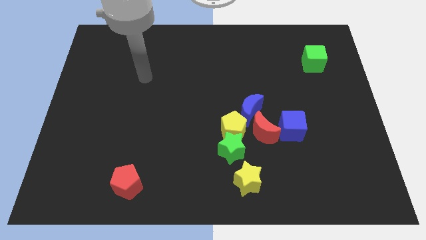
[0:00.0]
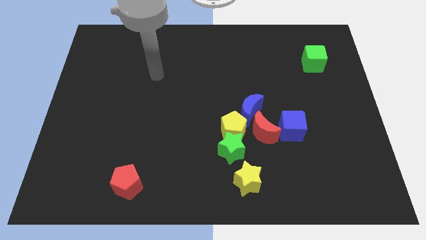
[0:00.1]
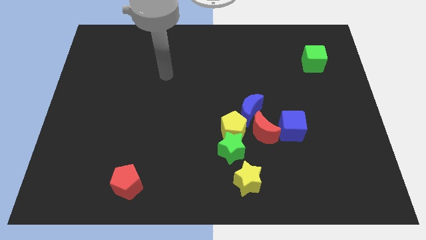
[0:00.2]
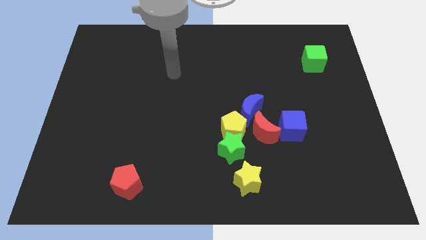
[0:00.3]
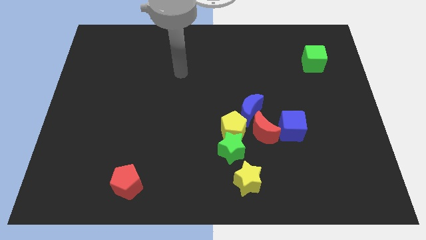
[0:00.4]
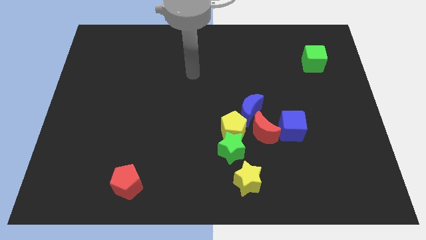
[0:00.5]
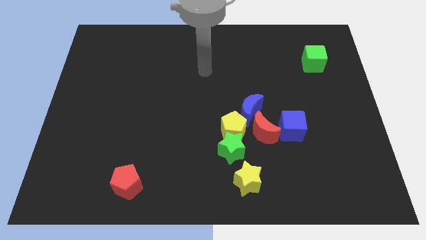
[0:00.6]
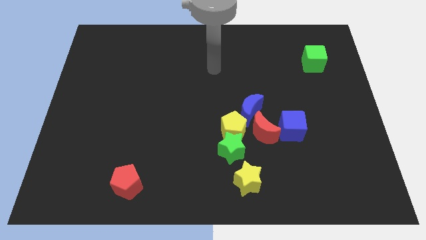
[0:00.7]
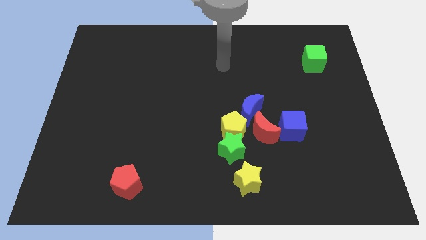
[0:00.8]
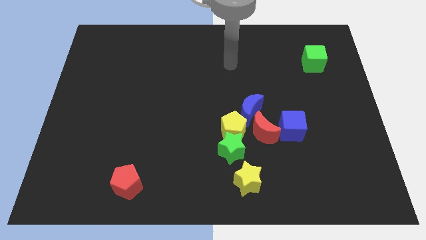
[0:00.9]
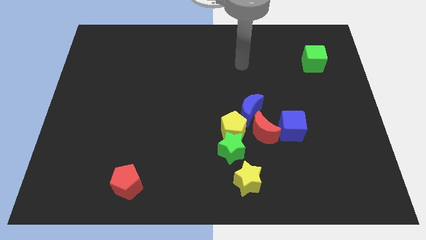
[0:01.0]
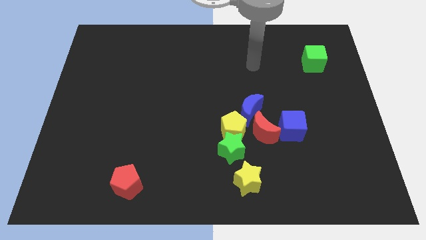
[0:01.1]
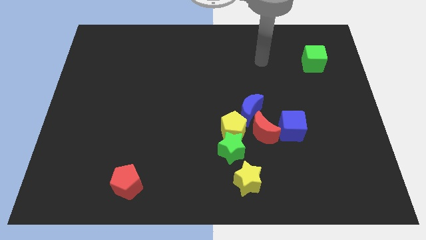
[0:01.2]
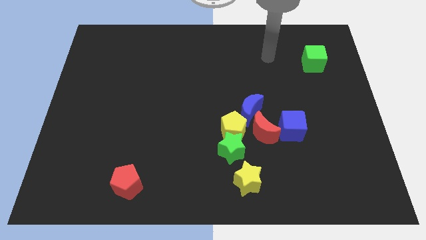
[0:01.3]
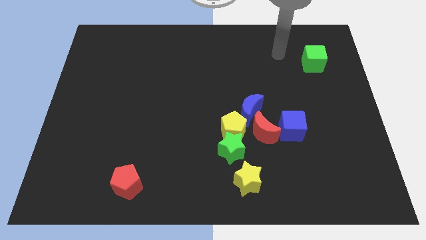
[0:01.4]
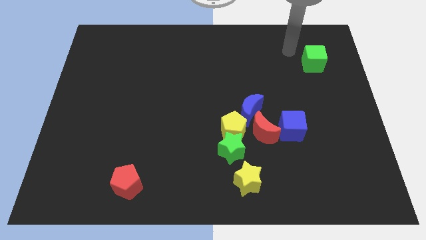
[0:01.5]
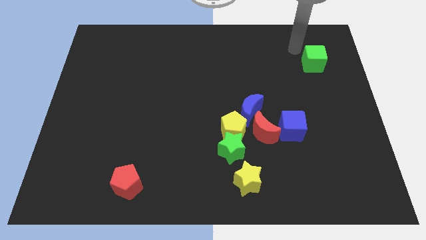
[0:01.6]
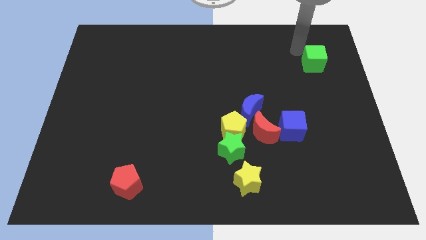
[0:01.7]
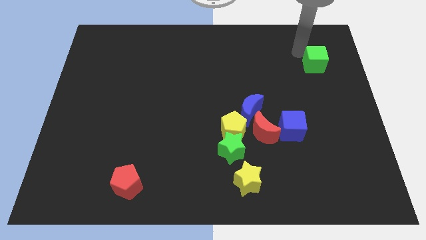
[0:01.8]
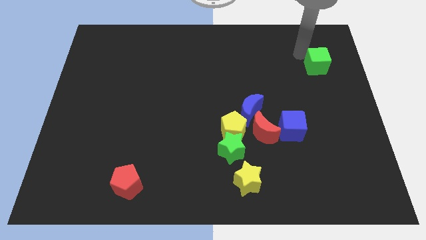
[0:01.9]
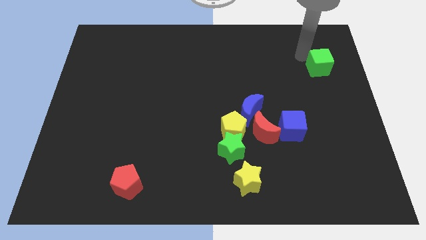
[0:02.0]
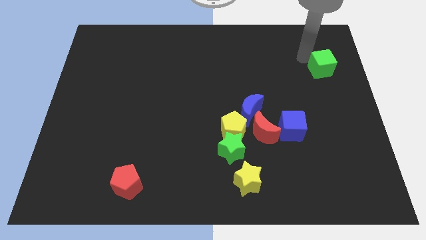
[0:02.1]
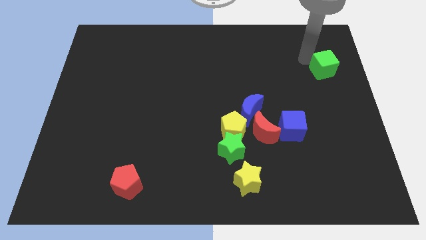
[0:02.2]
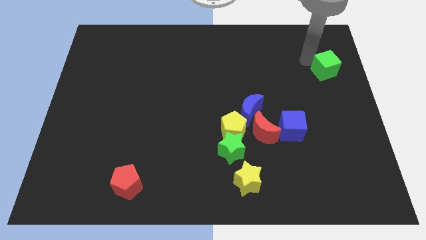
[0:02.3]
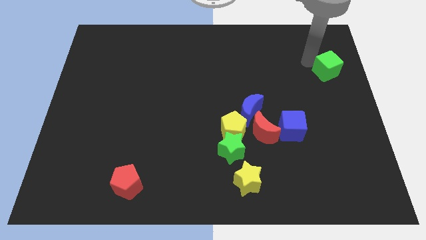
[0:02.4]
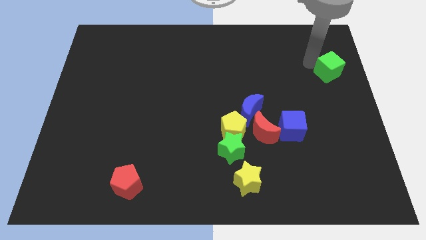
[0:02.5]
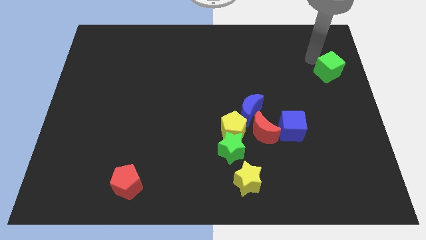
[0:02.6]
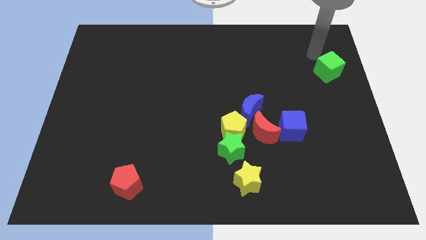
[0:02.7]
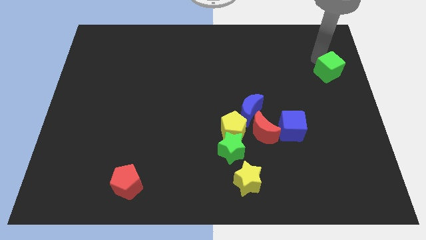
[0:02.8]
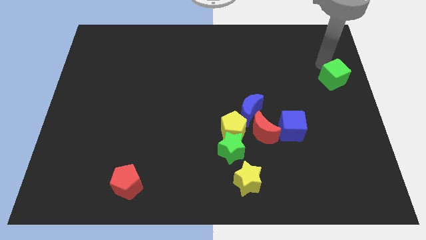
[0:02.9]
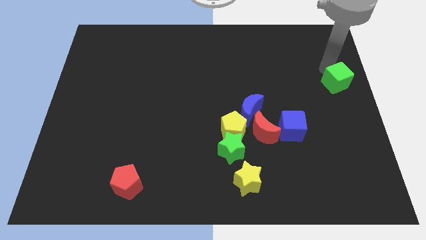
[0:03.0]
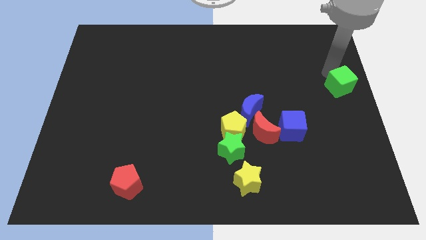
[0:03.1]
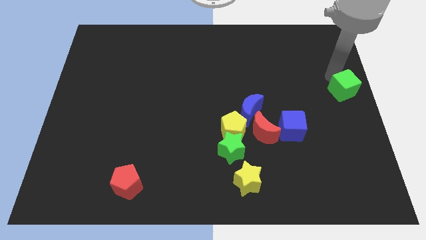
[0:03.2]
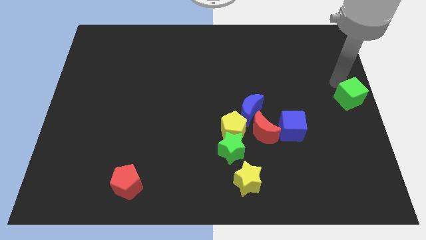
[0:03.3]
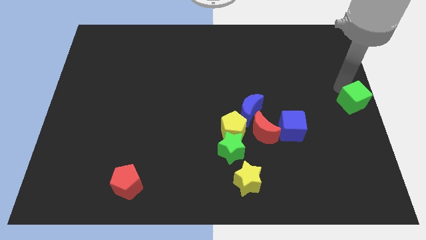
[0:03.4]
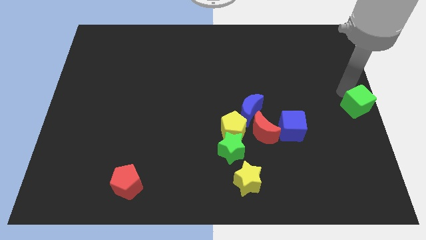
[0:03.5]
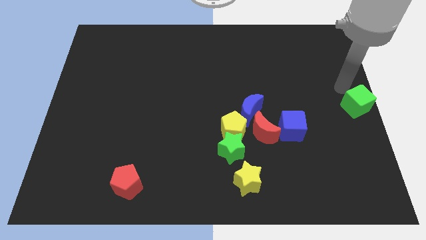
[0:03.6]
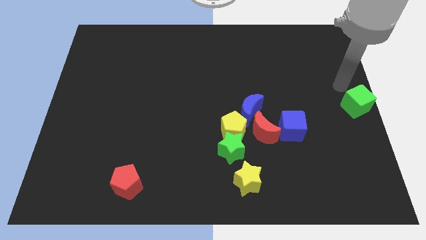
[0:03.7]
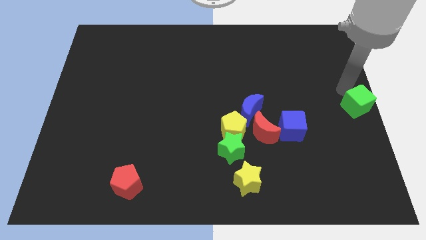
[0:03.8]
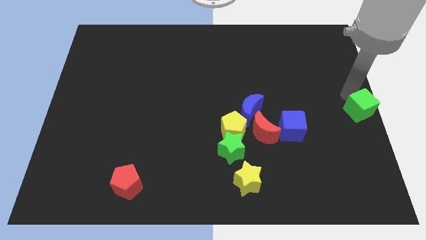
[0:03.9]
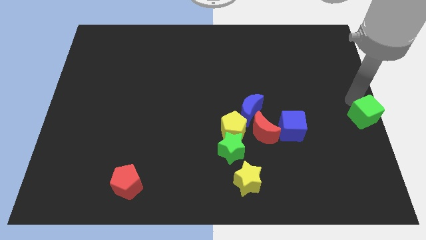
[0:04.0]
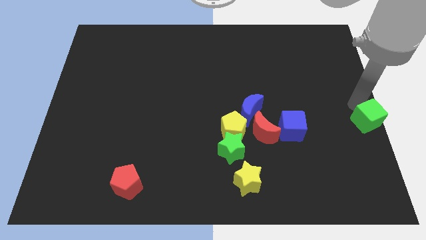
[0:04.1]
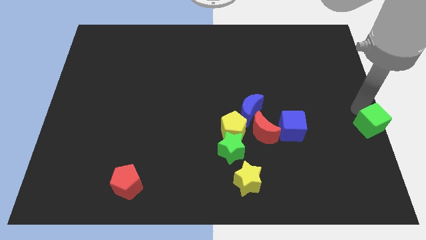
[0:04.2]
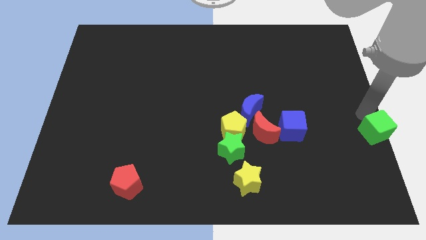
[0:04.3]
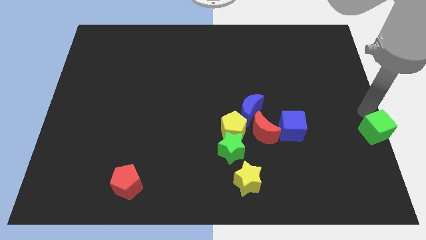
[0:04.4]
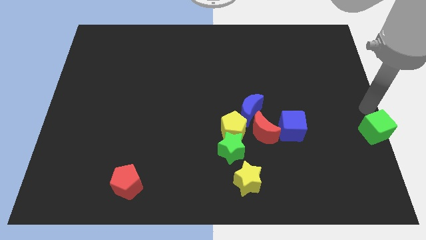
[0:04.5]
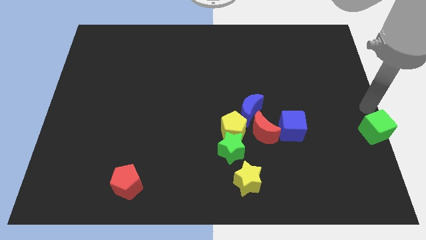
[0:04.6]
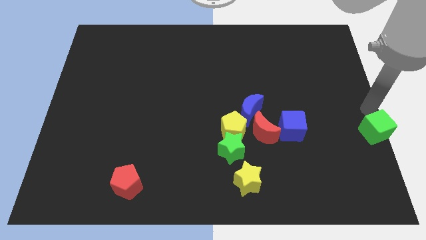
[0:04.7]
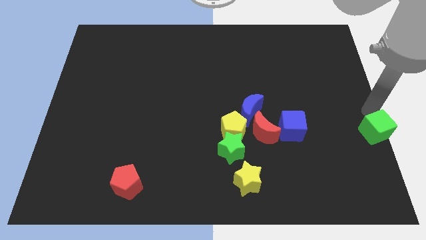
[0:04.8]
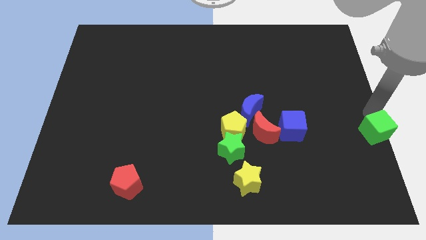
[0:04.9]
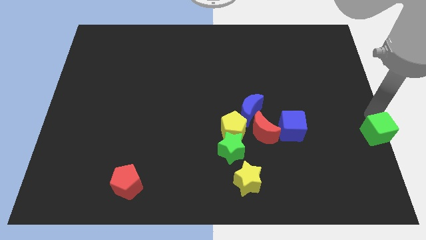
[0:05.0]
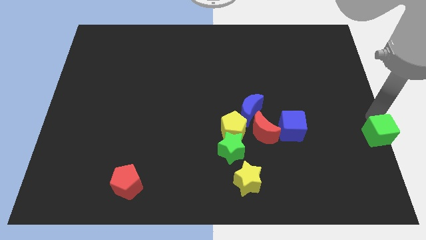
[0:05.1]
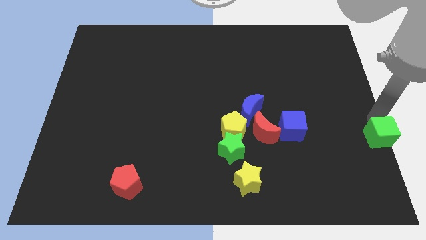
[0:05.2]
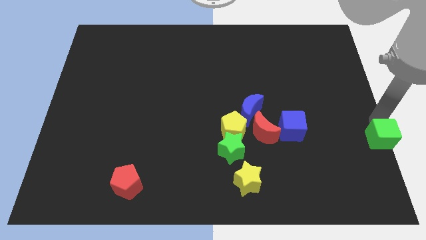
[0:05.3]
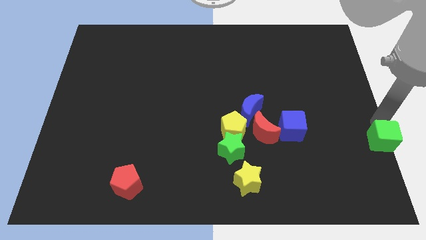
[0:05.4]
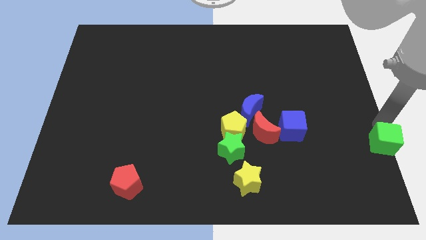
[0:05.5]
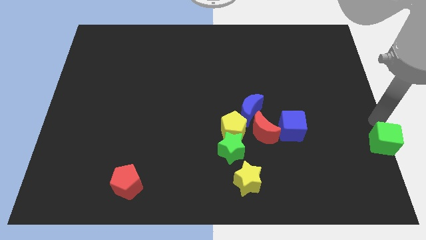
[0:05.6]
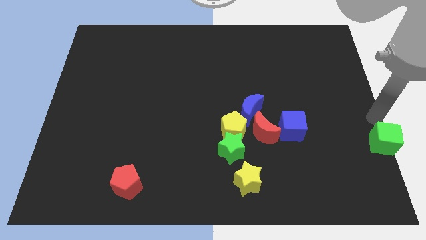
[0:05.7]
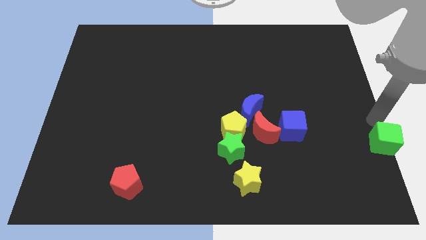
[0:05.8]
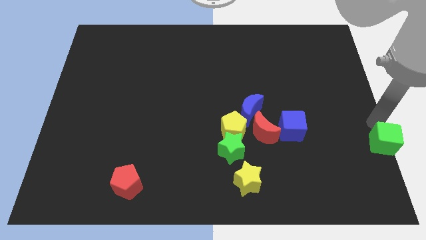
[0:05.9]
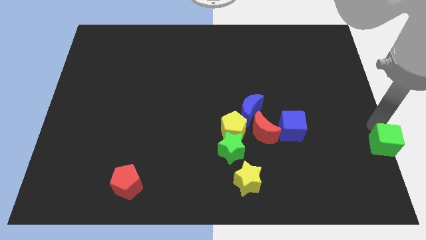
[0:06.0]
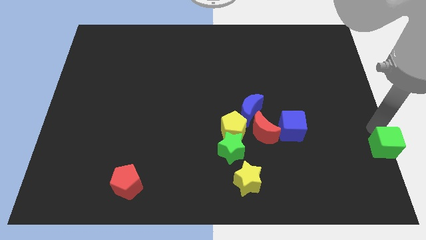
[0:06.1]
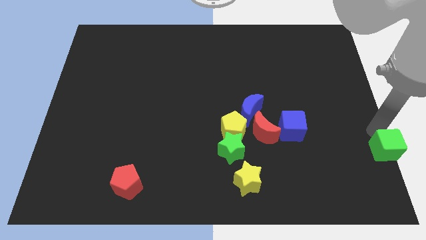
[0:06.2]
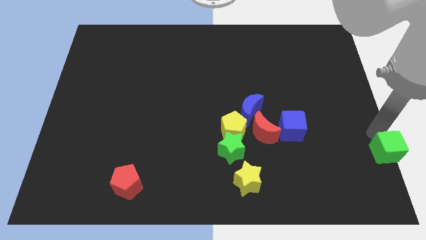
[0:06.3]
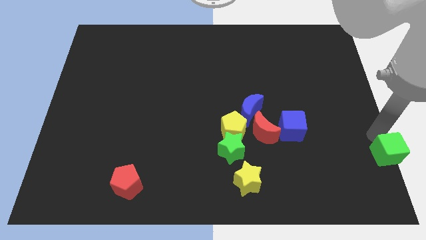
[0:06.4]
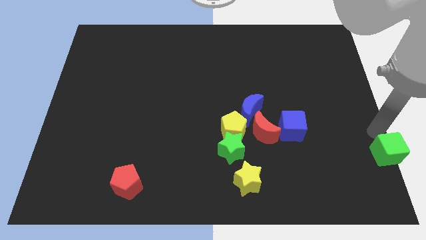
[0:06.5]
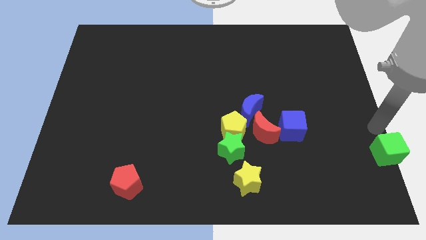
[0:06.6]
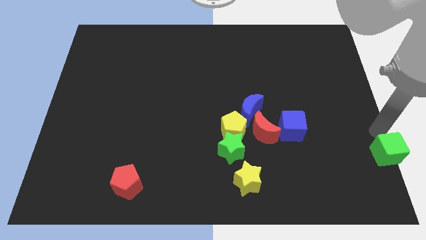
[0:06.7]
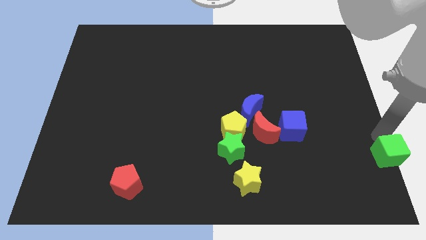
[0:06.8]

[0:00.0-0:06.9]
slide the green cube to the bottom right

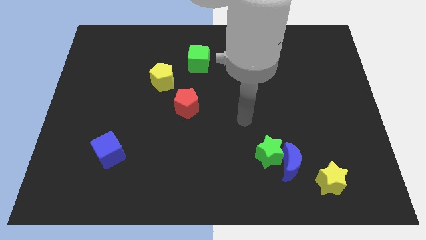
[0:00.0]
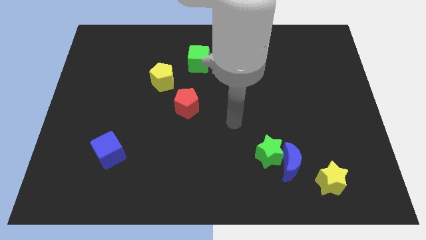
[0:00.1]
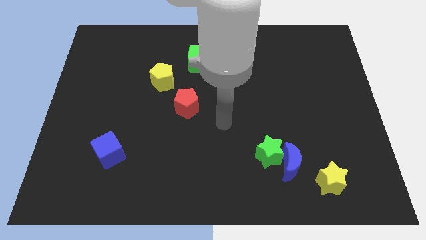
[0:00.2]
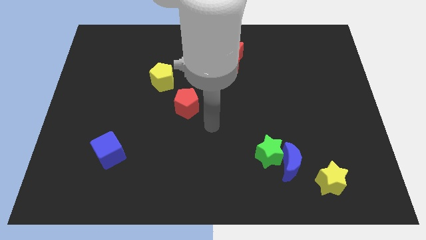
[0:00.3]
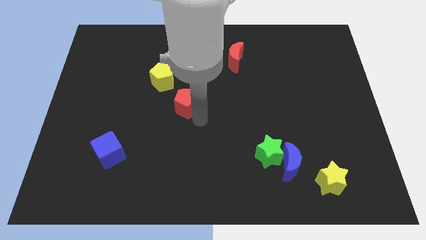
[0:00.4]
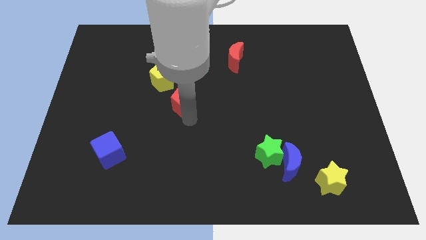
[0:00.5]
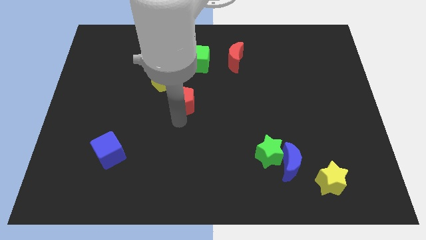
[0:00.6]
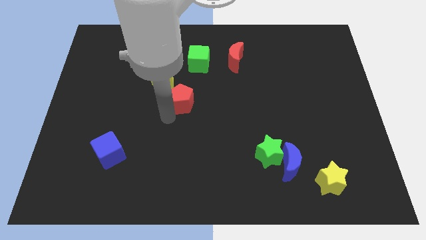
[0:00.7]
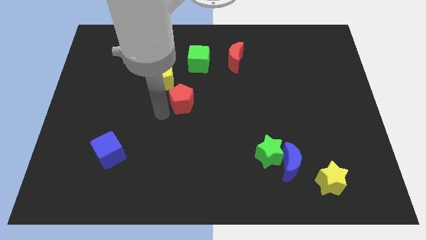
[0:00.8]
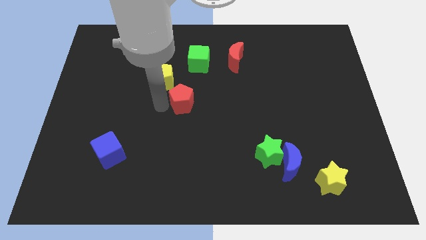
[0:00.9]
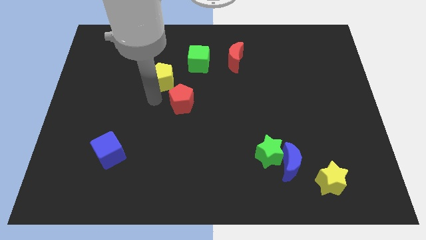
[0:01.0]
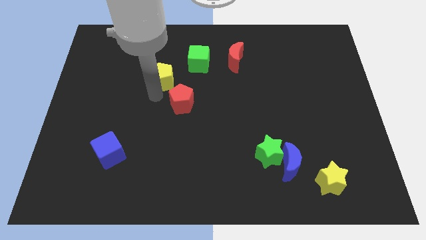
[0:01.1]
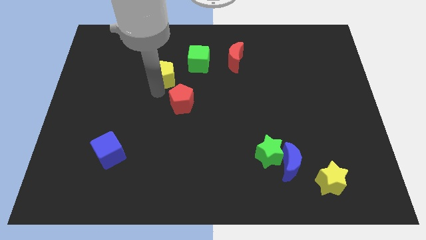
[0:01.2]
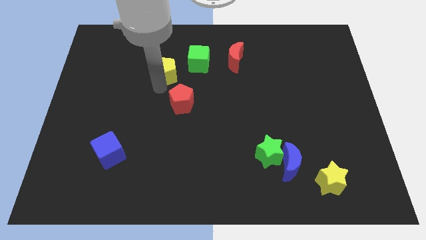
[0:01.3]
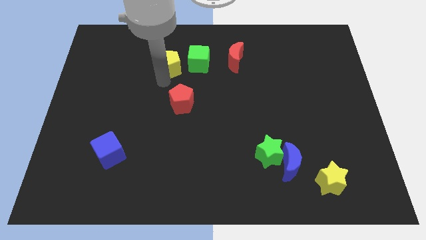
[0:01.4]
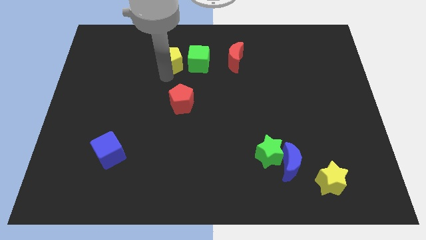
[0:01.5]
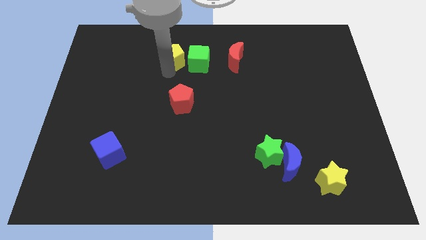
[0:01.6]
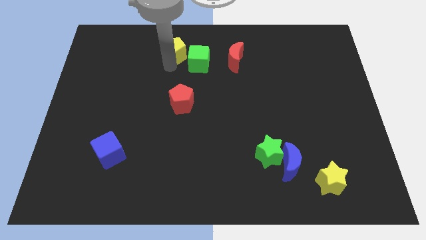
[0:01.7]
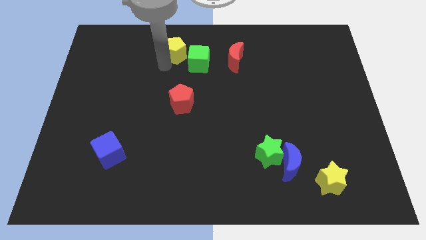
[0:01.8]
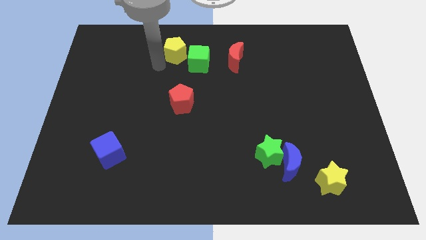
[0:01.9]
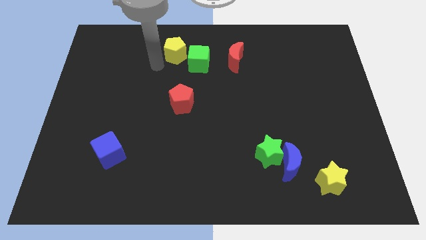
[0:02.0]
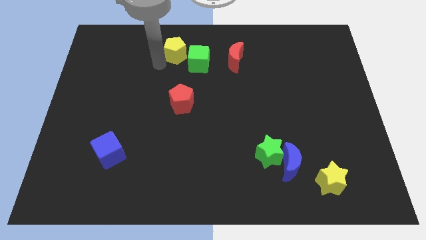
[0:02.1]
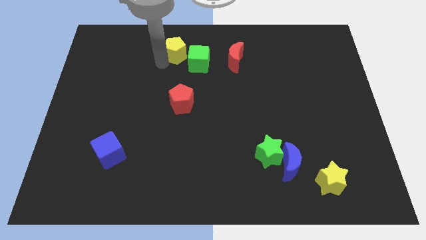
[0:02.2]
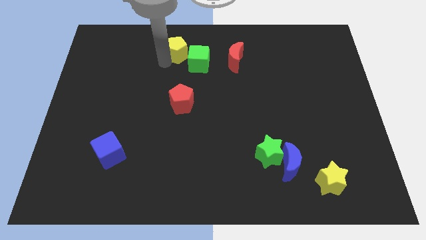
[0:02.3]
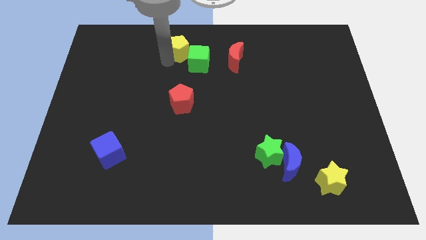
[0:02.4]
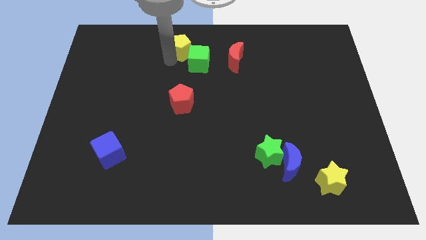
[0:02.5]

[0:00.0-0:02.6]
move the yellow pentagon to the top side
